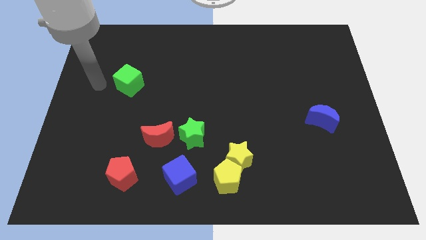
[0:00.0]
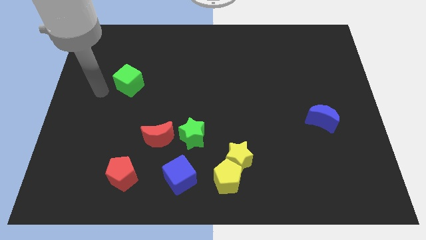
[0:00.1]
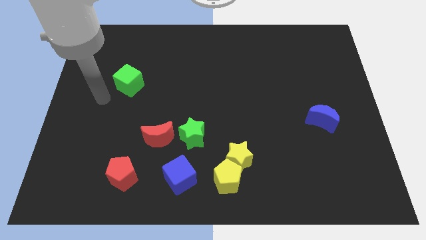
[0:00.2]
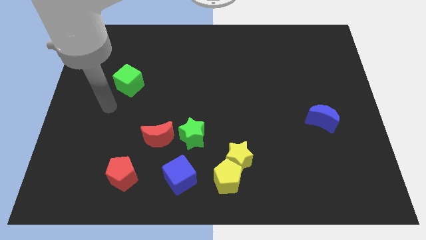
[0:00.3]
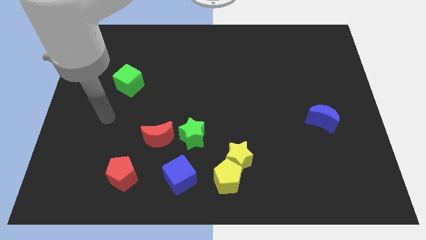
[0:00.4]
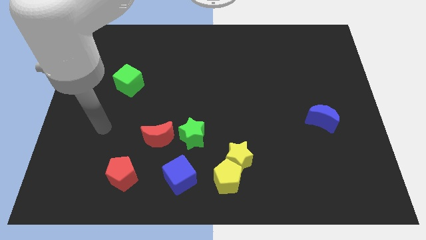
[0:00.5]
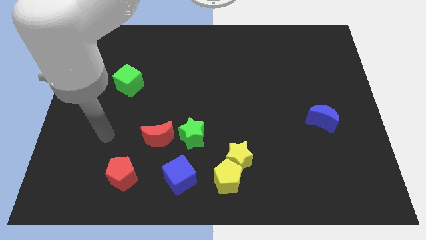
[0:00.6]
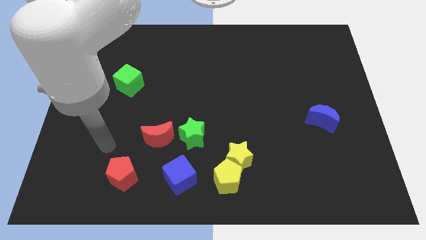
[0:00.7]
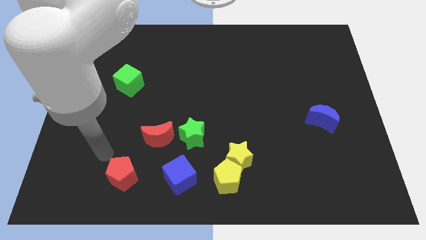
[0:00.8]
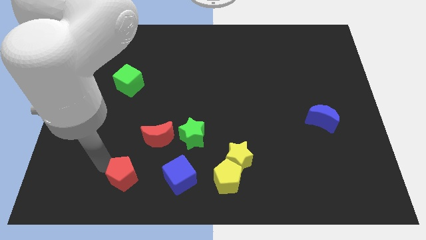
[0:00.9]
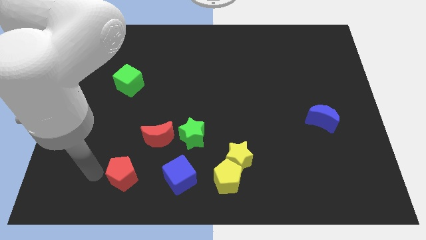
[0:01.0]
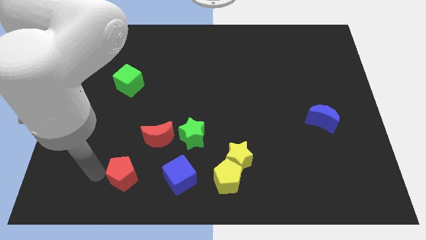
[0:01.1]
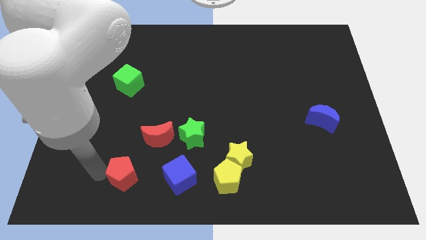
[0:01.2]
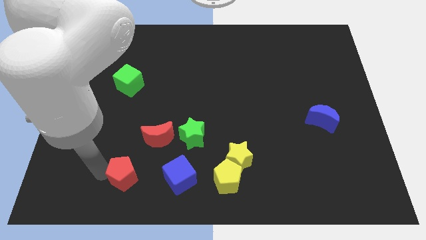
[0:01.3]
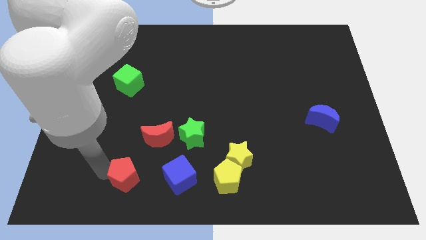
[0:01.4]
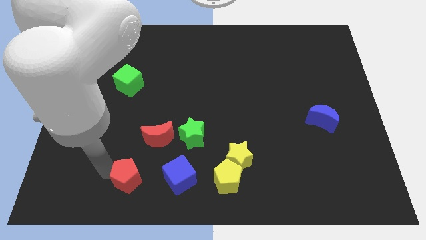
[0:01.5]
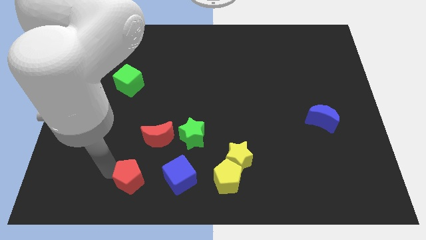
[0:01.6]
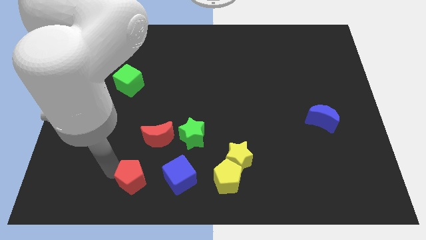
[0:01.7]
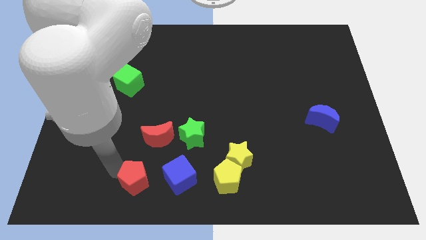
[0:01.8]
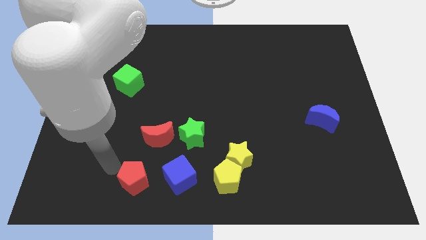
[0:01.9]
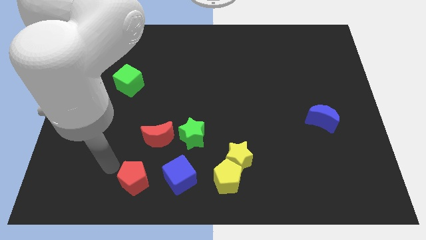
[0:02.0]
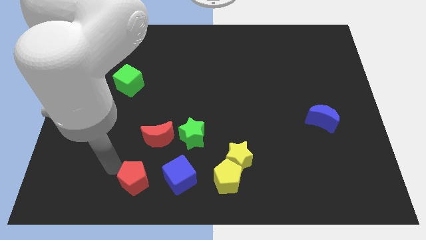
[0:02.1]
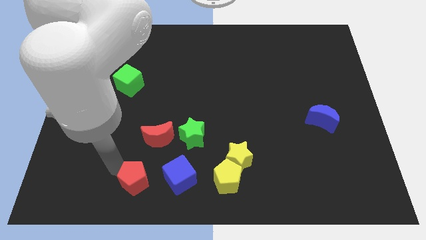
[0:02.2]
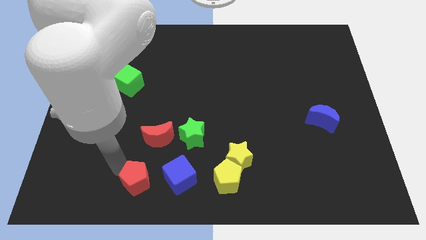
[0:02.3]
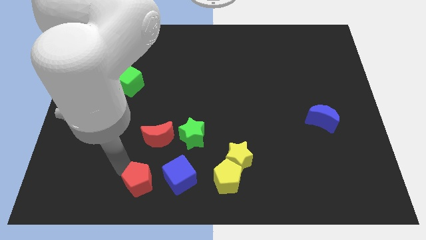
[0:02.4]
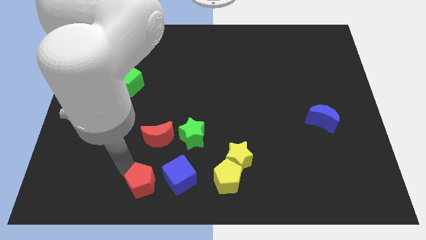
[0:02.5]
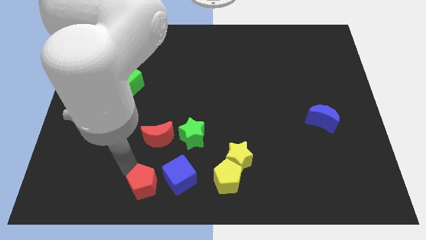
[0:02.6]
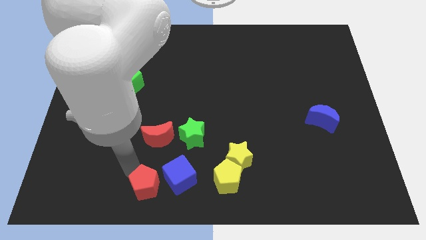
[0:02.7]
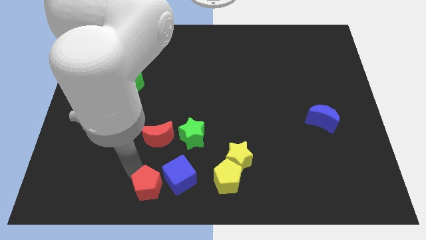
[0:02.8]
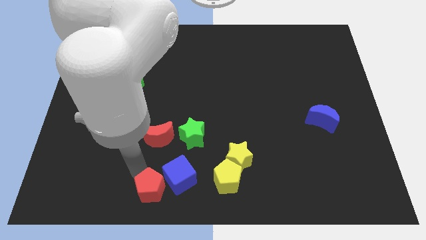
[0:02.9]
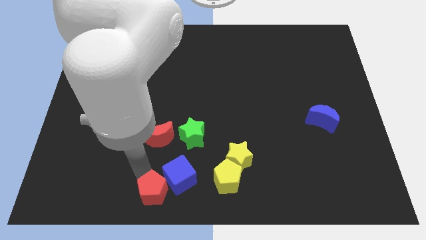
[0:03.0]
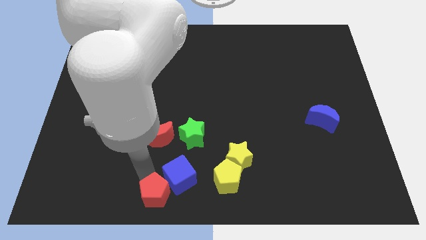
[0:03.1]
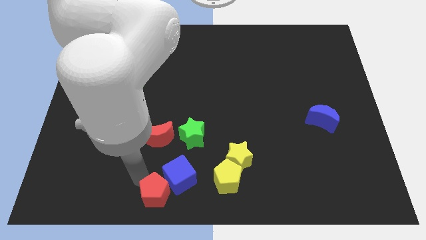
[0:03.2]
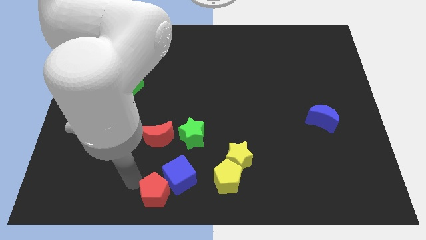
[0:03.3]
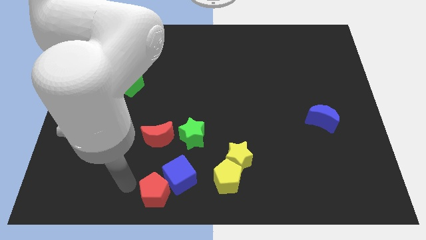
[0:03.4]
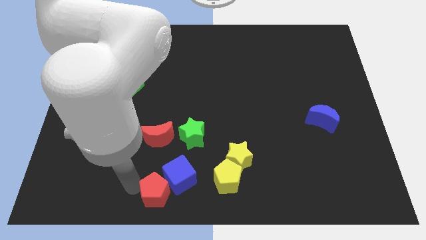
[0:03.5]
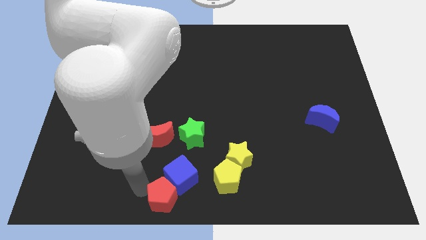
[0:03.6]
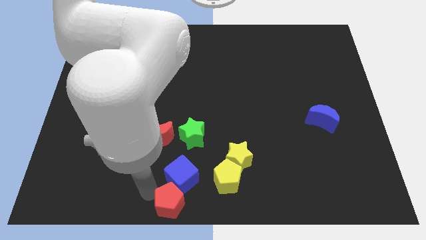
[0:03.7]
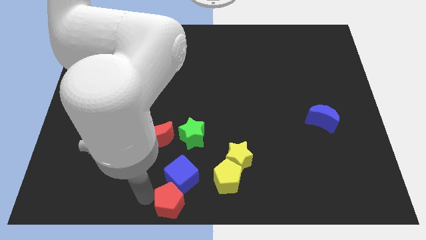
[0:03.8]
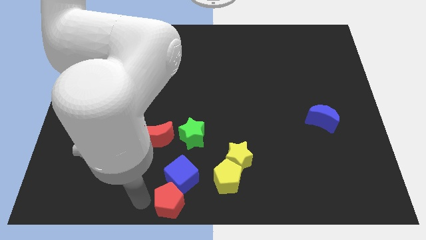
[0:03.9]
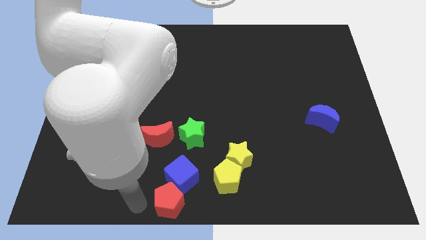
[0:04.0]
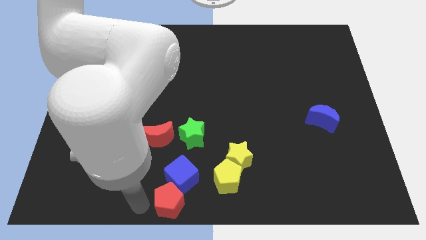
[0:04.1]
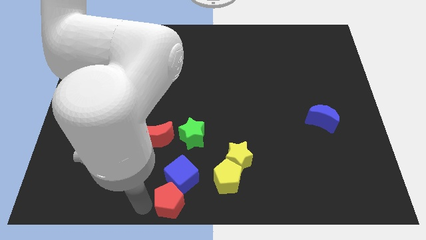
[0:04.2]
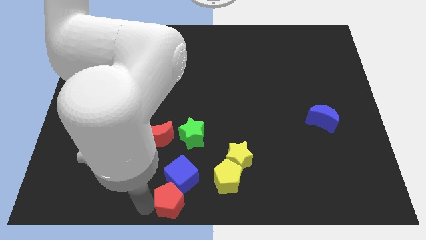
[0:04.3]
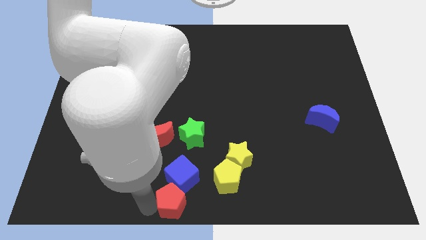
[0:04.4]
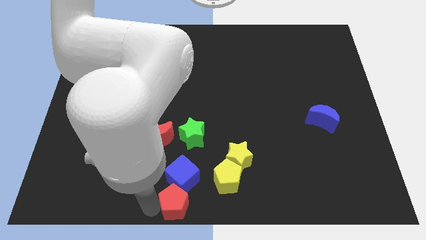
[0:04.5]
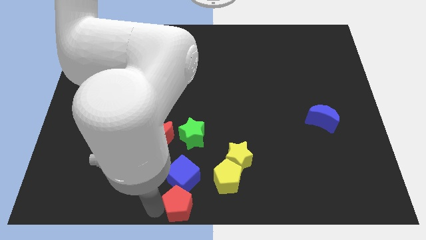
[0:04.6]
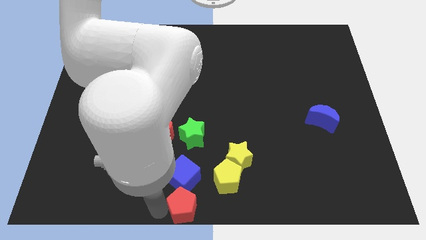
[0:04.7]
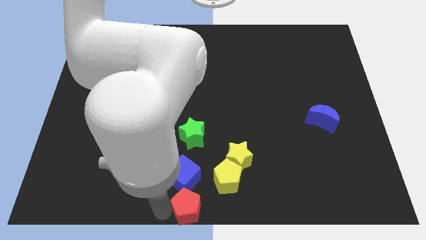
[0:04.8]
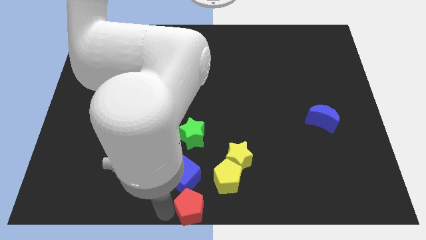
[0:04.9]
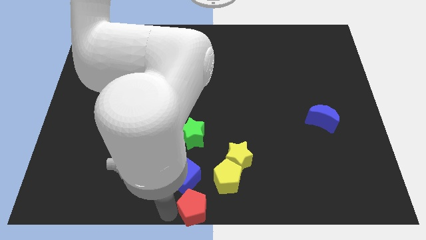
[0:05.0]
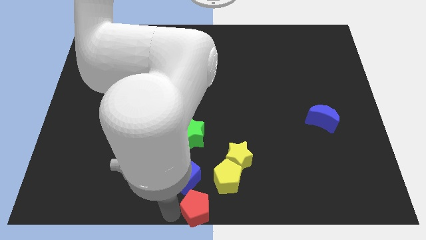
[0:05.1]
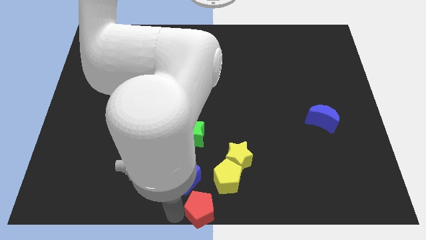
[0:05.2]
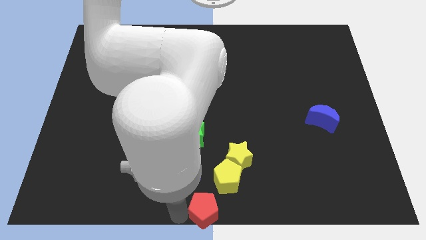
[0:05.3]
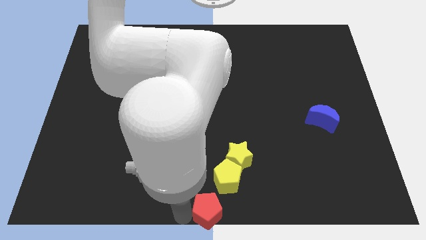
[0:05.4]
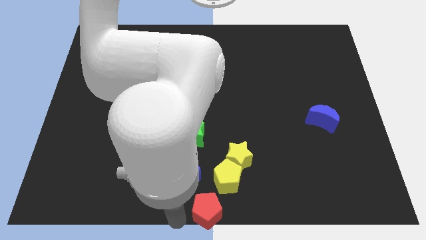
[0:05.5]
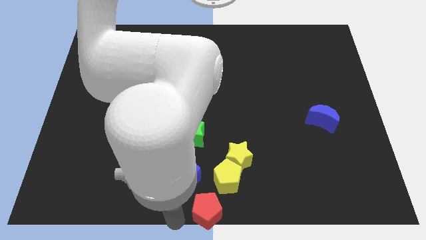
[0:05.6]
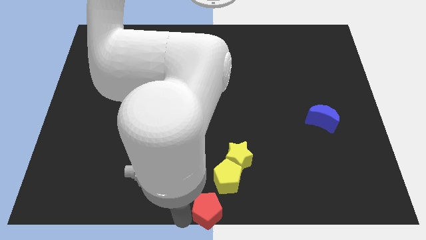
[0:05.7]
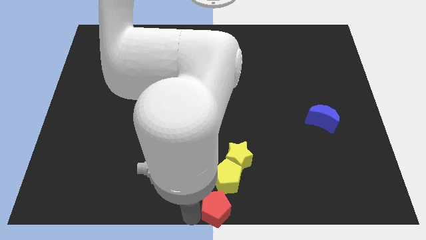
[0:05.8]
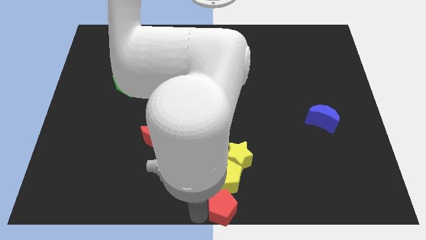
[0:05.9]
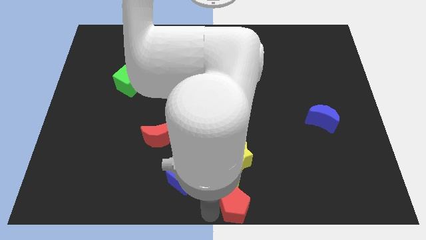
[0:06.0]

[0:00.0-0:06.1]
slide the red pentagon right

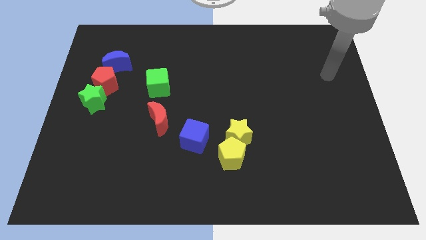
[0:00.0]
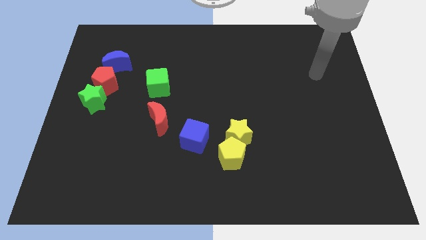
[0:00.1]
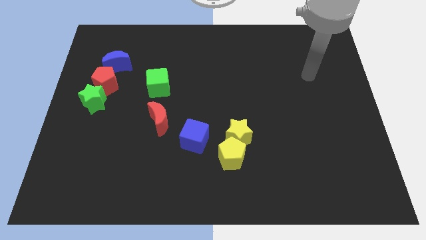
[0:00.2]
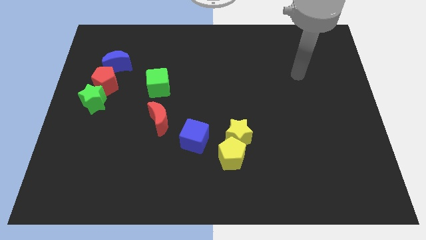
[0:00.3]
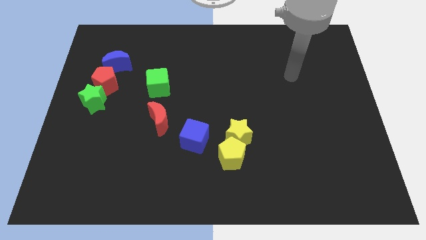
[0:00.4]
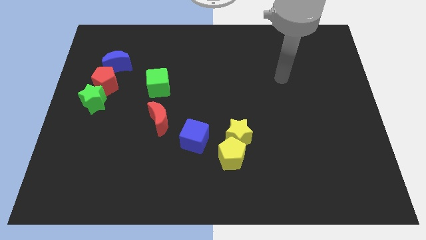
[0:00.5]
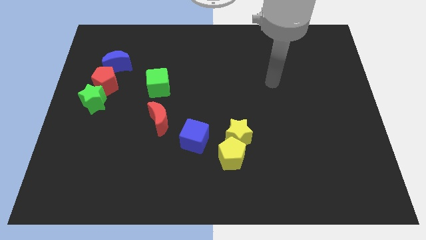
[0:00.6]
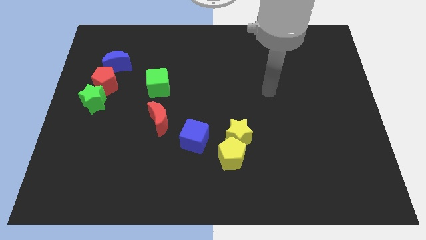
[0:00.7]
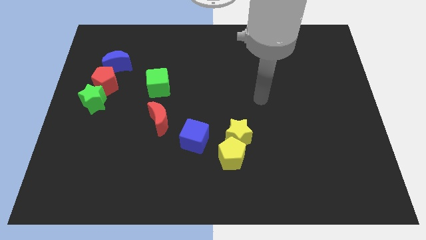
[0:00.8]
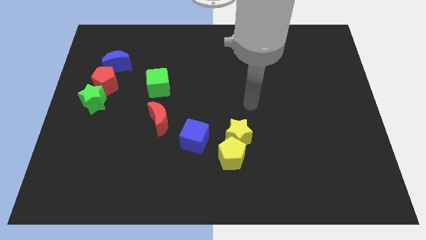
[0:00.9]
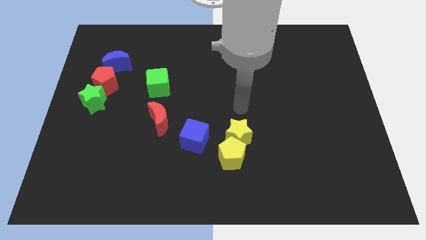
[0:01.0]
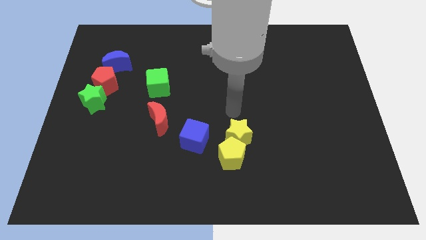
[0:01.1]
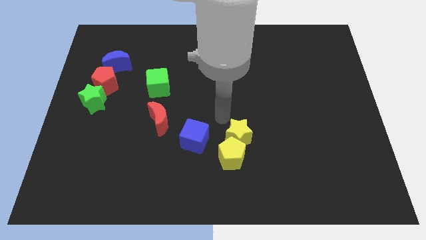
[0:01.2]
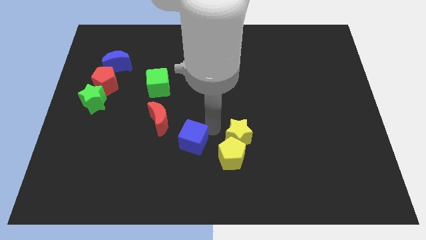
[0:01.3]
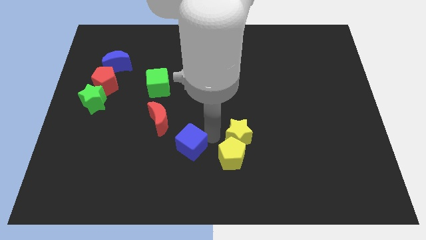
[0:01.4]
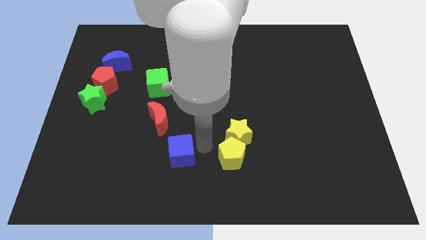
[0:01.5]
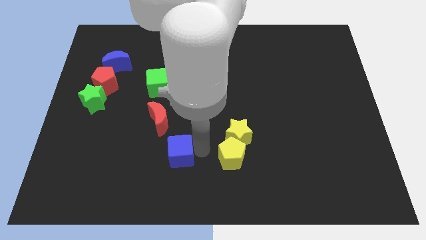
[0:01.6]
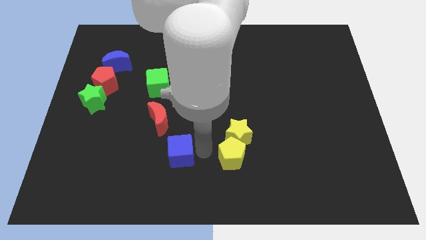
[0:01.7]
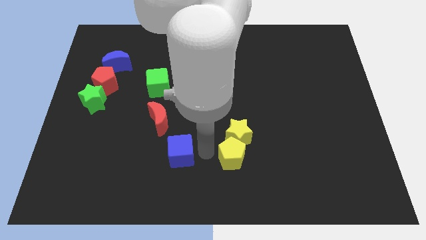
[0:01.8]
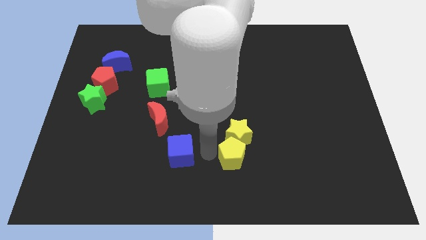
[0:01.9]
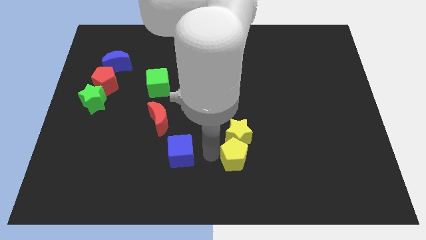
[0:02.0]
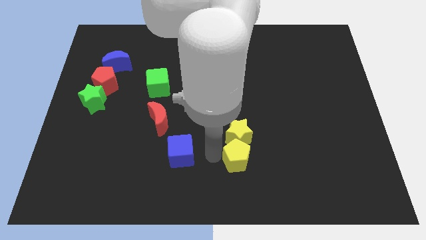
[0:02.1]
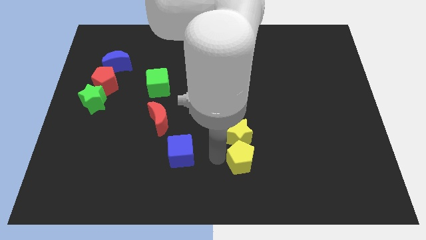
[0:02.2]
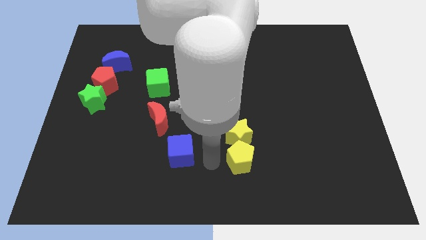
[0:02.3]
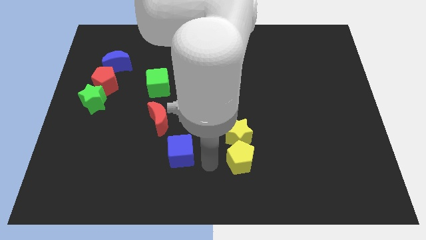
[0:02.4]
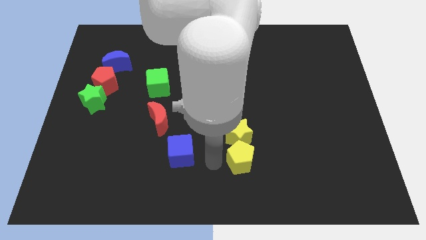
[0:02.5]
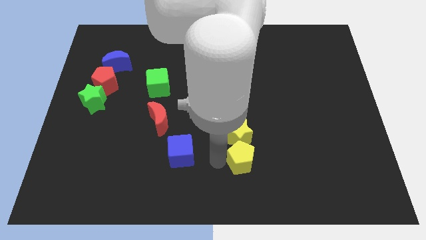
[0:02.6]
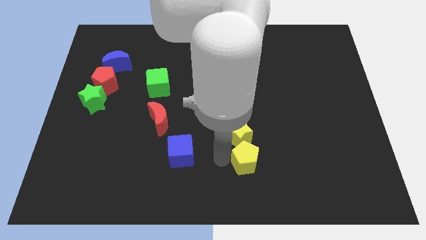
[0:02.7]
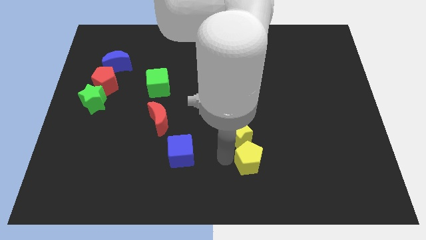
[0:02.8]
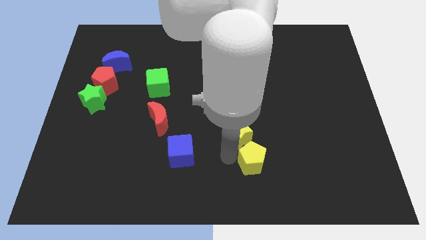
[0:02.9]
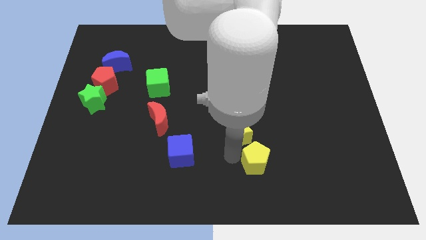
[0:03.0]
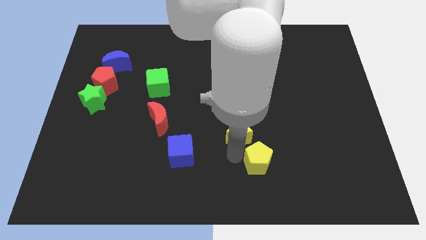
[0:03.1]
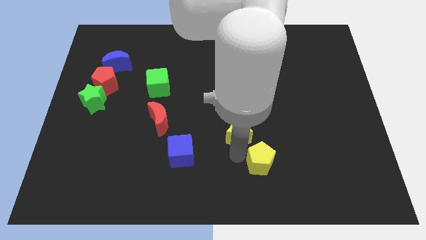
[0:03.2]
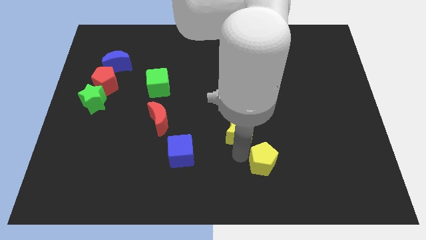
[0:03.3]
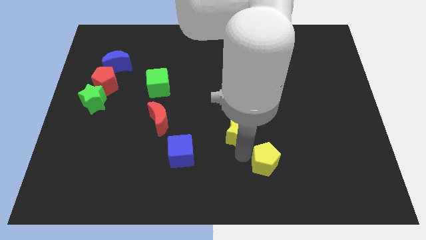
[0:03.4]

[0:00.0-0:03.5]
slightly slide the yellow pentagon right
